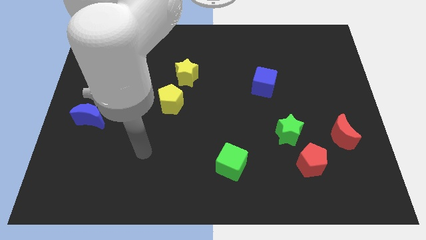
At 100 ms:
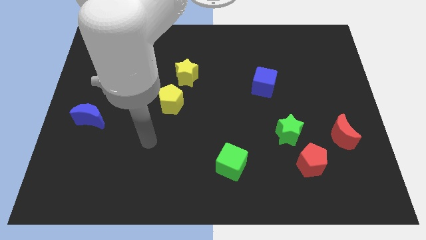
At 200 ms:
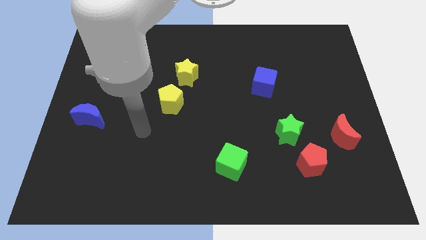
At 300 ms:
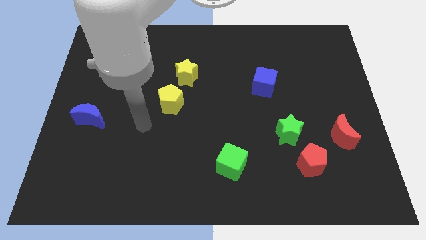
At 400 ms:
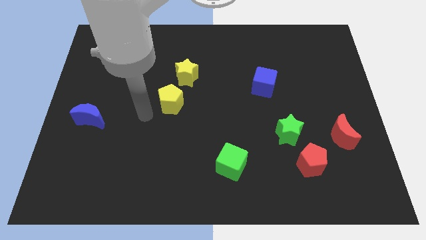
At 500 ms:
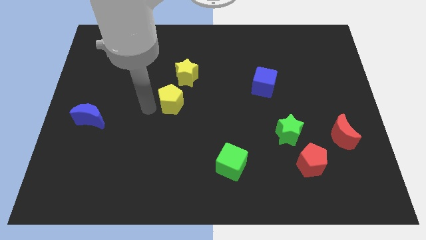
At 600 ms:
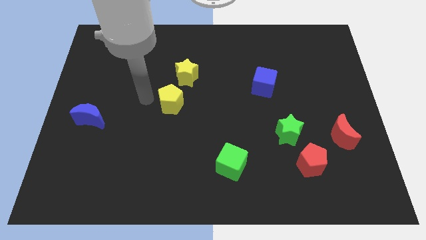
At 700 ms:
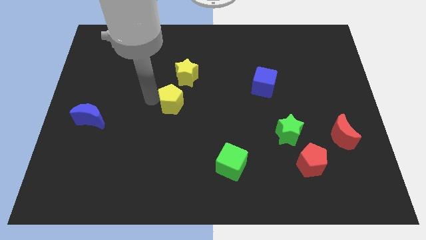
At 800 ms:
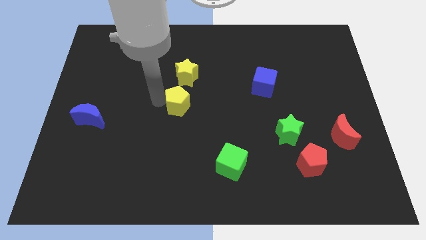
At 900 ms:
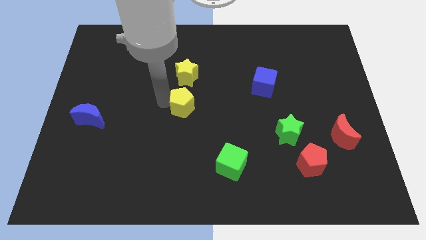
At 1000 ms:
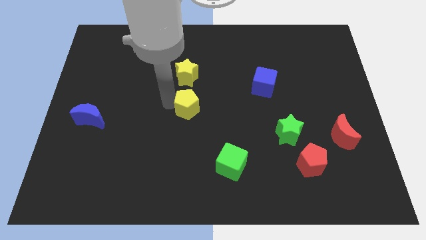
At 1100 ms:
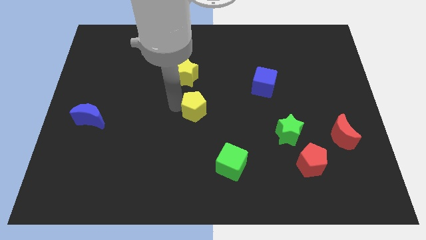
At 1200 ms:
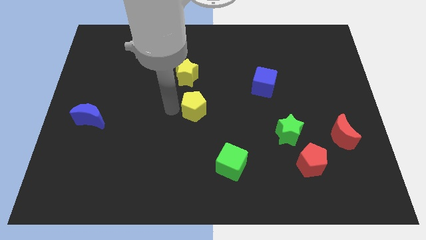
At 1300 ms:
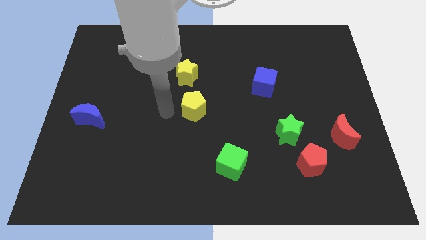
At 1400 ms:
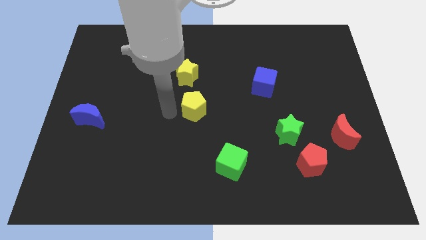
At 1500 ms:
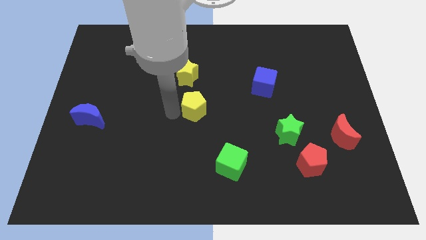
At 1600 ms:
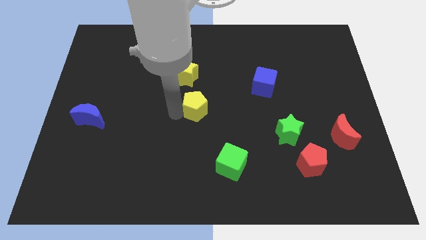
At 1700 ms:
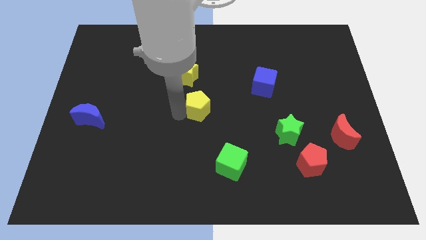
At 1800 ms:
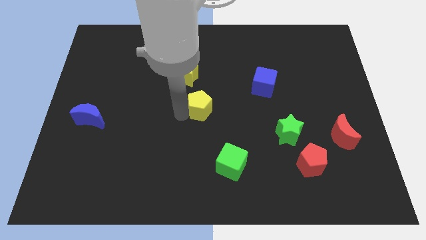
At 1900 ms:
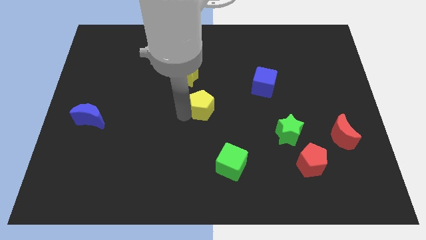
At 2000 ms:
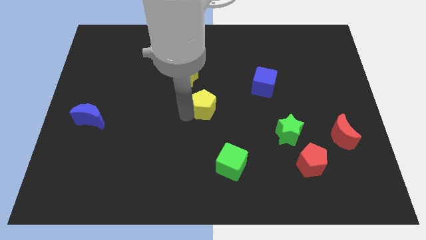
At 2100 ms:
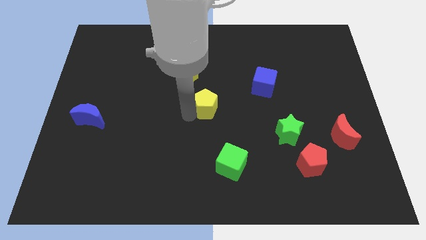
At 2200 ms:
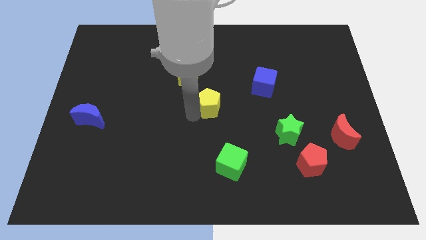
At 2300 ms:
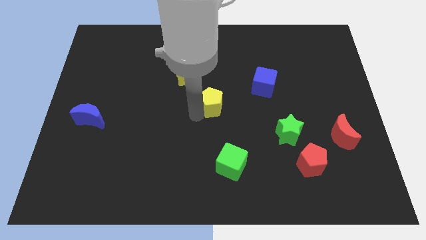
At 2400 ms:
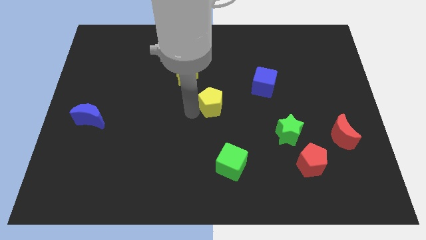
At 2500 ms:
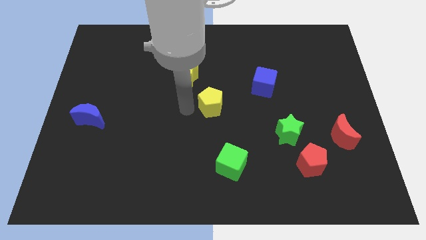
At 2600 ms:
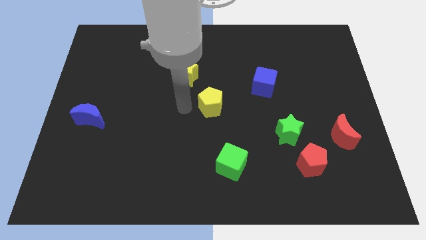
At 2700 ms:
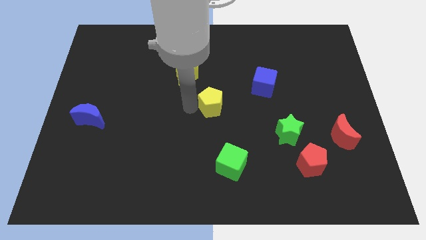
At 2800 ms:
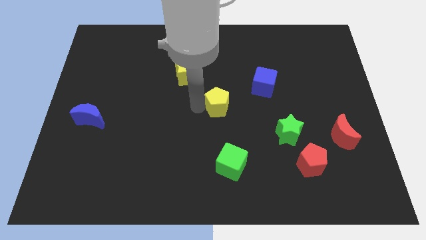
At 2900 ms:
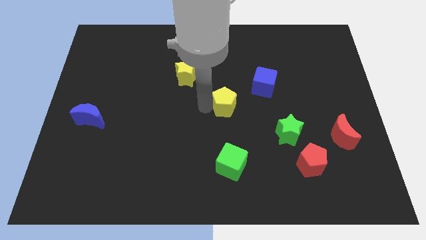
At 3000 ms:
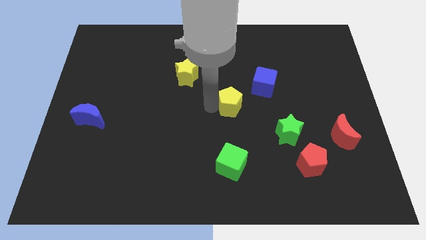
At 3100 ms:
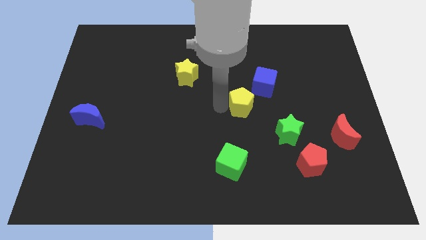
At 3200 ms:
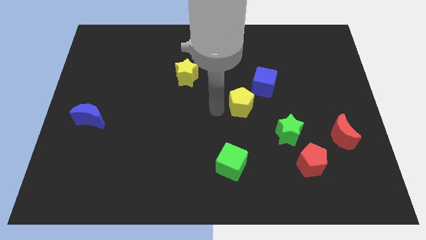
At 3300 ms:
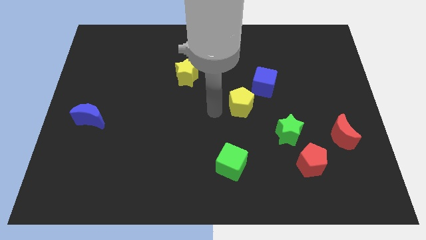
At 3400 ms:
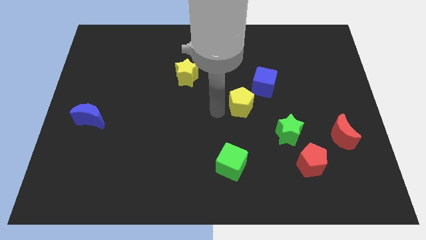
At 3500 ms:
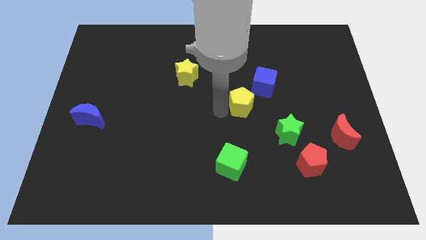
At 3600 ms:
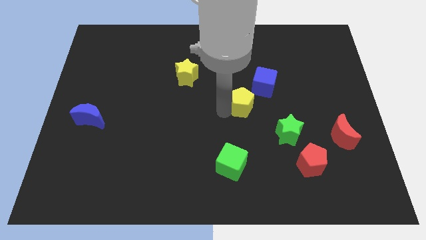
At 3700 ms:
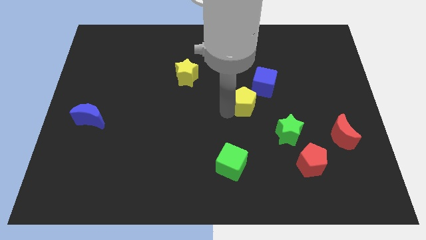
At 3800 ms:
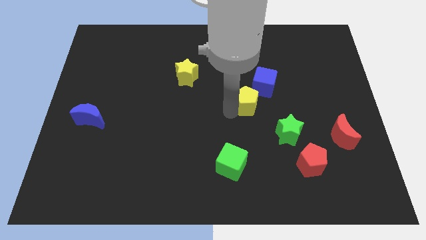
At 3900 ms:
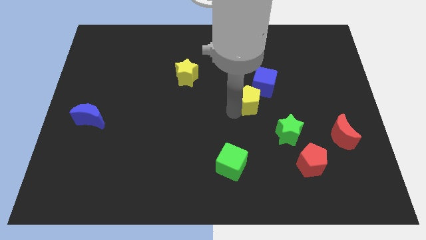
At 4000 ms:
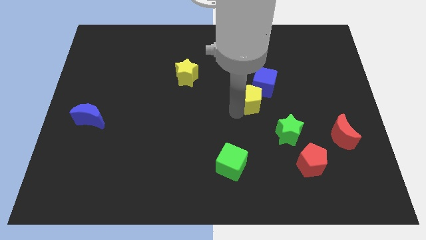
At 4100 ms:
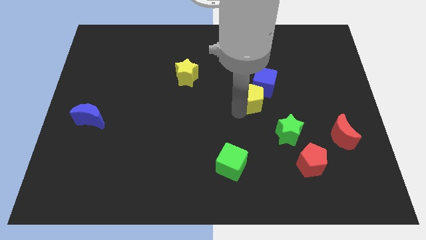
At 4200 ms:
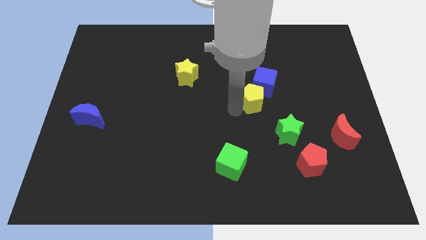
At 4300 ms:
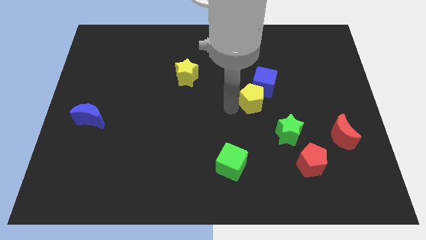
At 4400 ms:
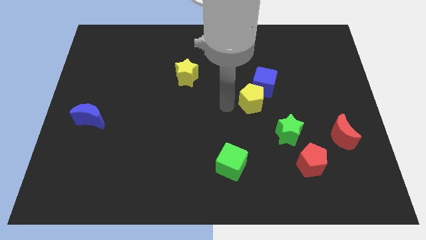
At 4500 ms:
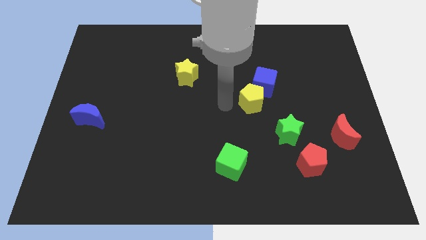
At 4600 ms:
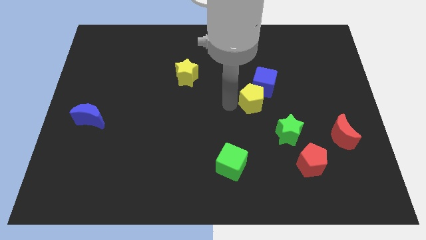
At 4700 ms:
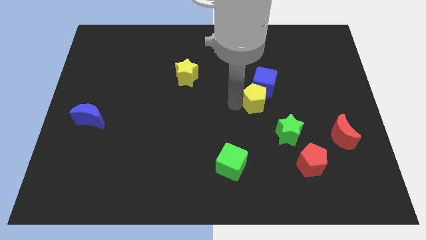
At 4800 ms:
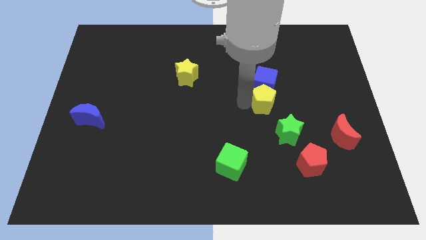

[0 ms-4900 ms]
move the yellow pentagon diagonally down and to the right of the blue cube

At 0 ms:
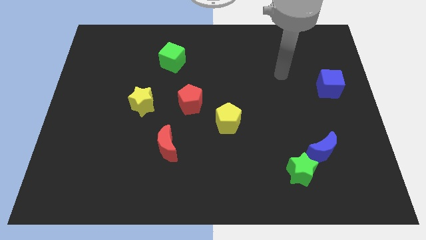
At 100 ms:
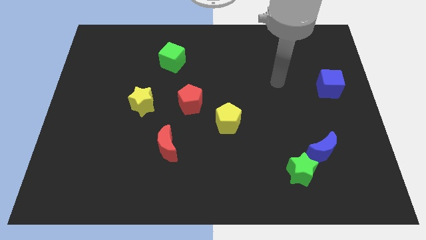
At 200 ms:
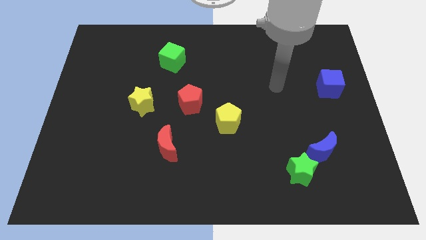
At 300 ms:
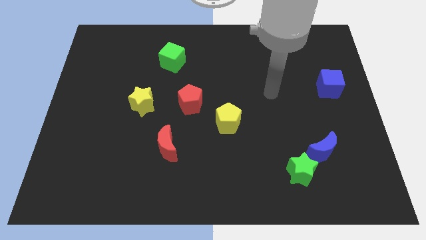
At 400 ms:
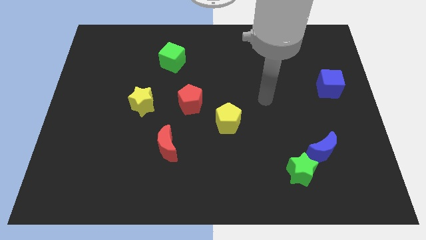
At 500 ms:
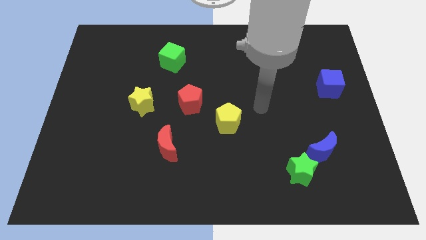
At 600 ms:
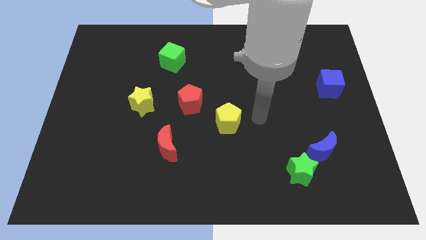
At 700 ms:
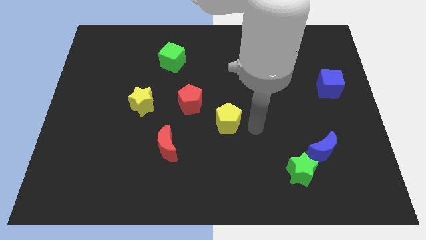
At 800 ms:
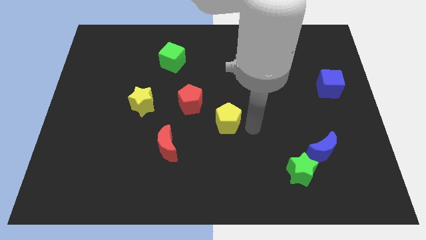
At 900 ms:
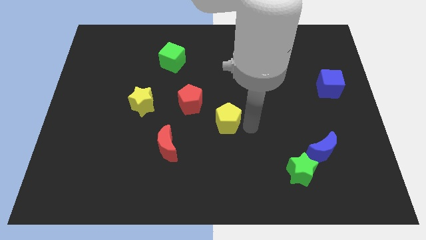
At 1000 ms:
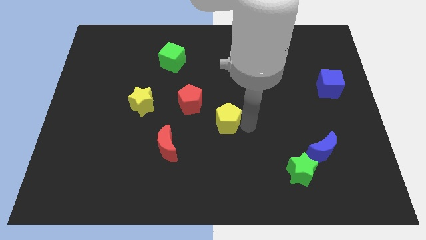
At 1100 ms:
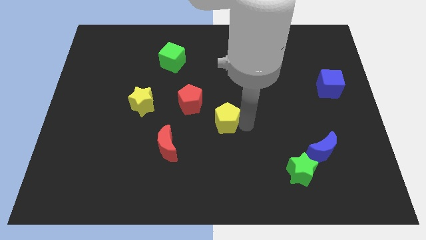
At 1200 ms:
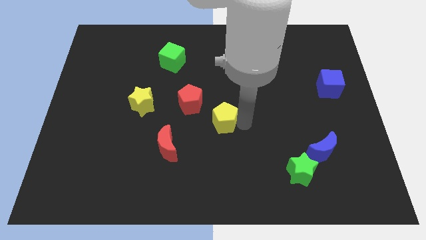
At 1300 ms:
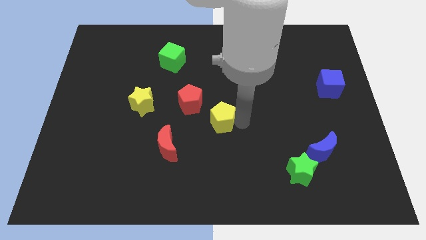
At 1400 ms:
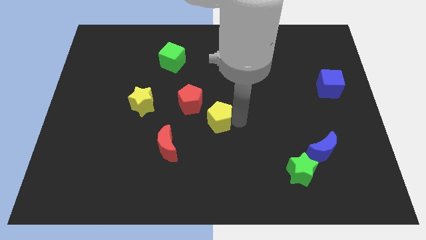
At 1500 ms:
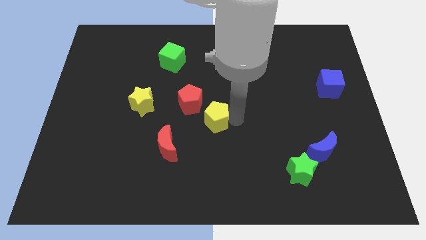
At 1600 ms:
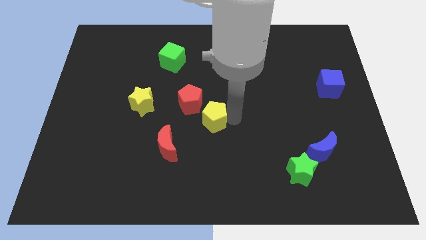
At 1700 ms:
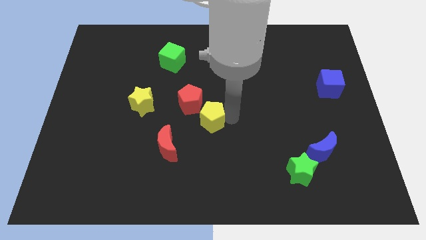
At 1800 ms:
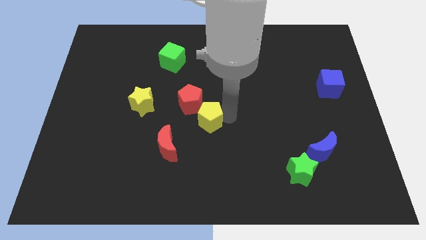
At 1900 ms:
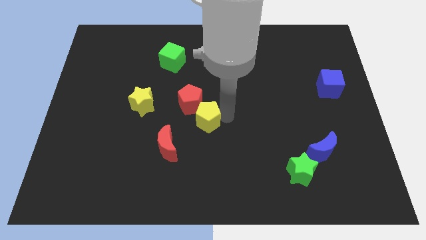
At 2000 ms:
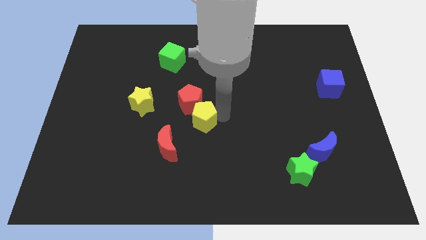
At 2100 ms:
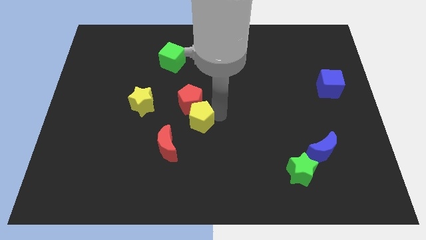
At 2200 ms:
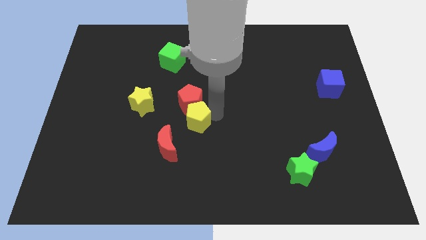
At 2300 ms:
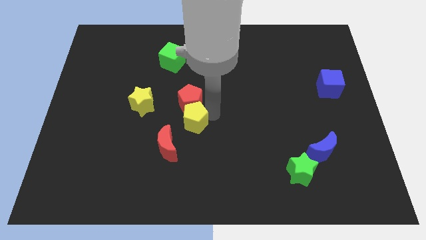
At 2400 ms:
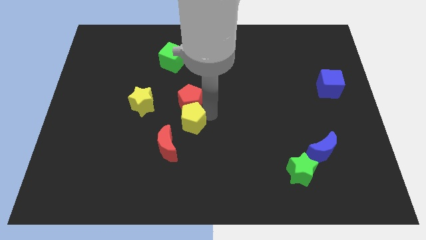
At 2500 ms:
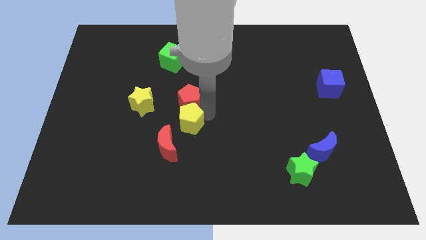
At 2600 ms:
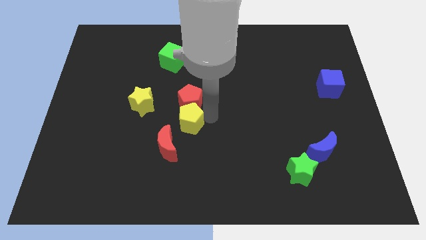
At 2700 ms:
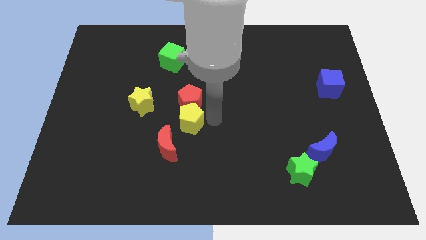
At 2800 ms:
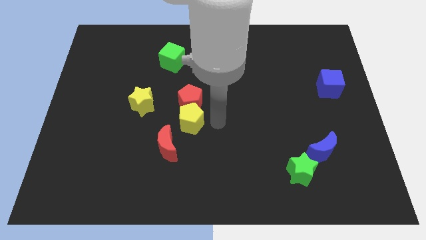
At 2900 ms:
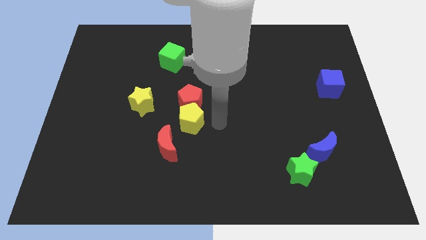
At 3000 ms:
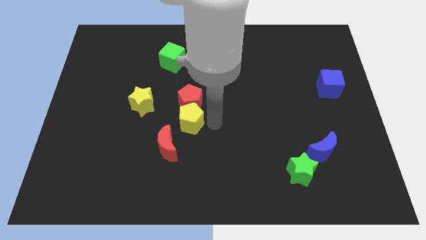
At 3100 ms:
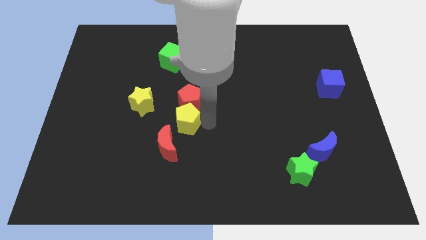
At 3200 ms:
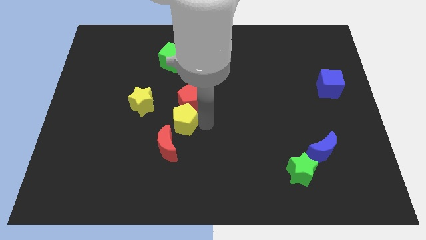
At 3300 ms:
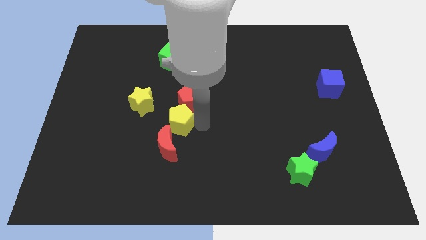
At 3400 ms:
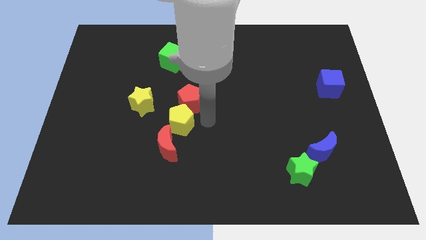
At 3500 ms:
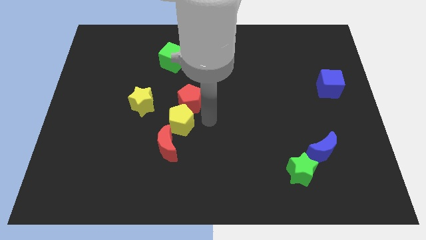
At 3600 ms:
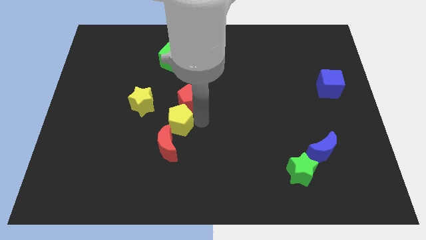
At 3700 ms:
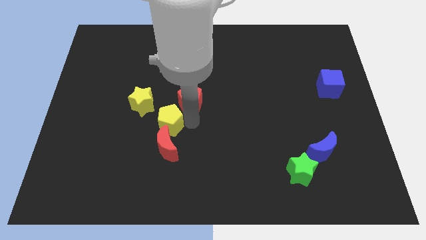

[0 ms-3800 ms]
move the yellow pentagon to the top left side of the red moon
